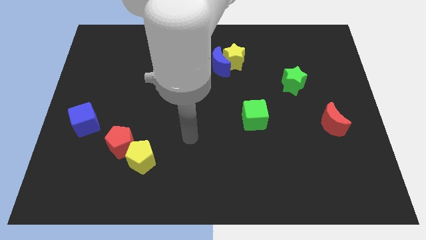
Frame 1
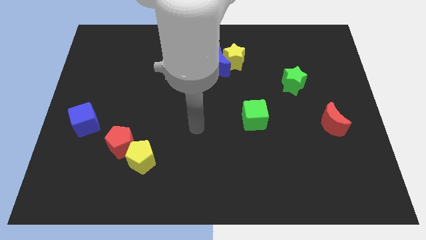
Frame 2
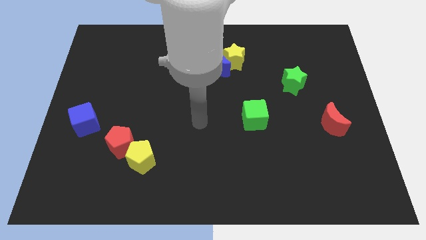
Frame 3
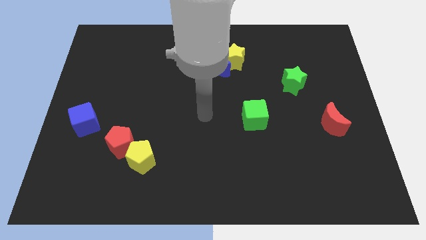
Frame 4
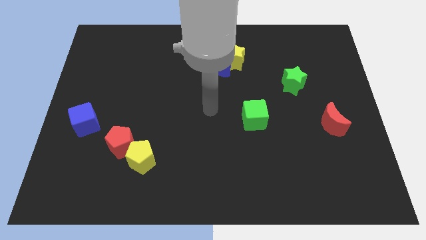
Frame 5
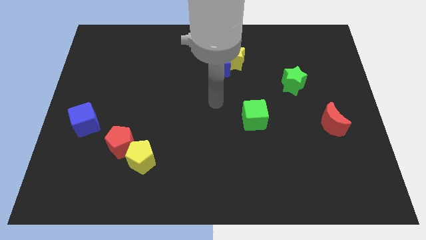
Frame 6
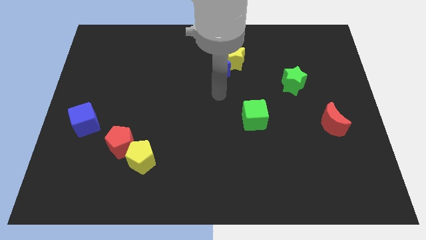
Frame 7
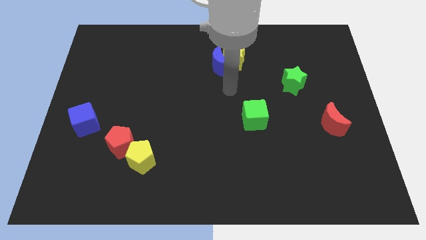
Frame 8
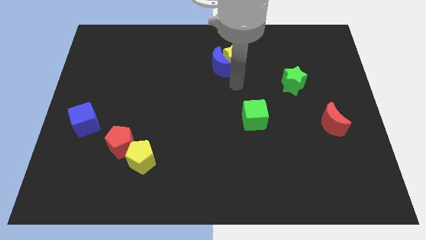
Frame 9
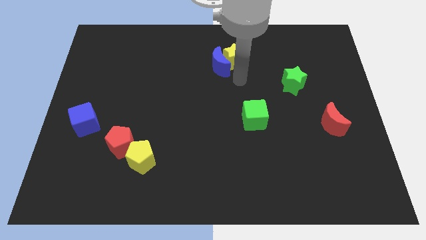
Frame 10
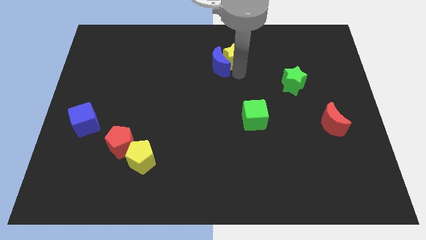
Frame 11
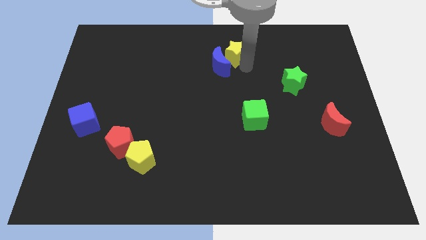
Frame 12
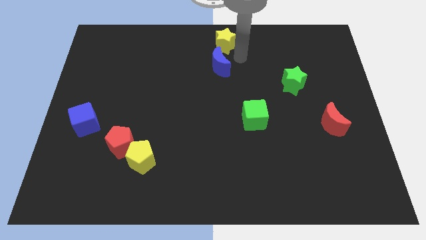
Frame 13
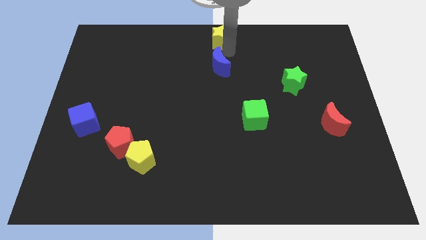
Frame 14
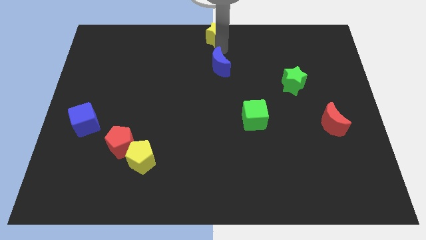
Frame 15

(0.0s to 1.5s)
separate the blue moon from the yellow star

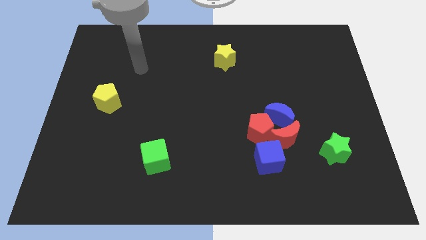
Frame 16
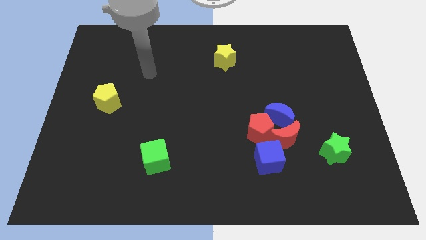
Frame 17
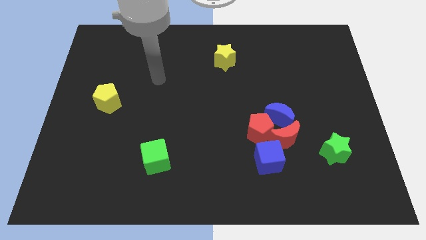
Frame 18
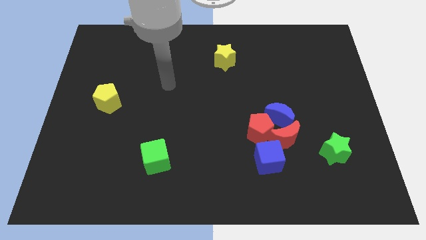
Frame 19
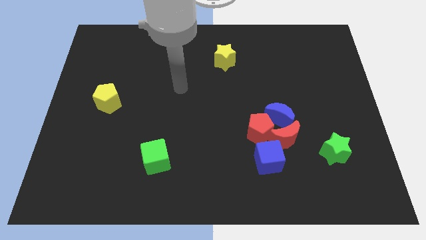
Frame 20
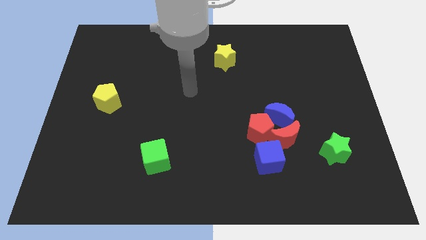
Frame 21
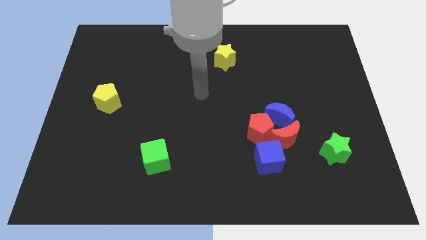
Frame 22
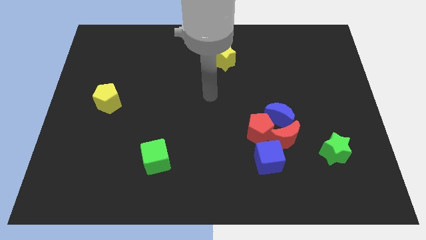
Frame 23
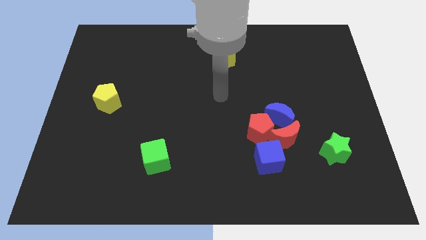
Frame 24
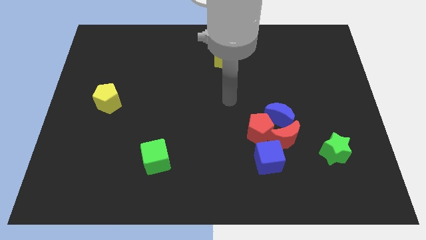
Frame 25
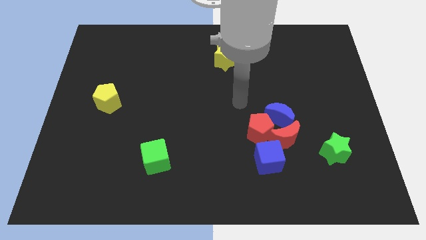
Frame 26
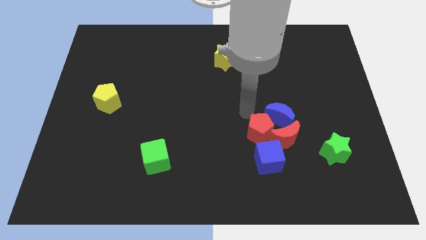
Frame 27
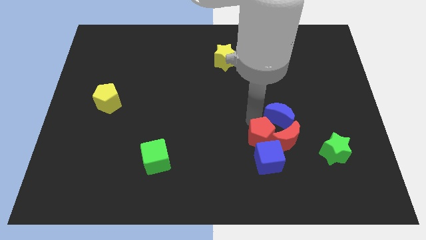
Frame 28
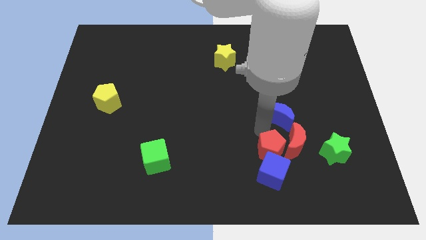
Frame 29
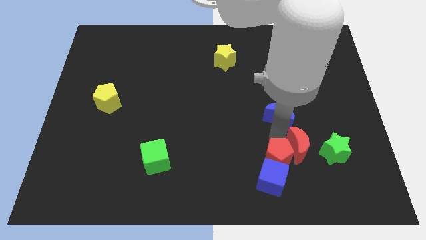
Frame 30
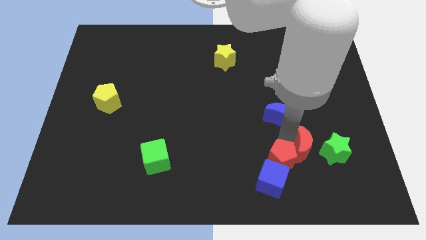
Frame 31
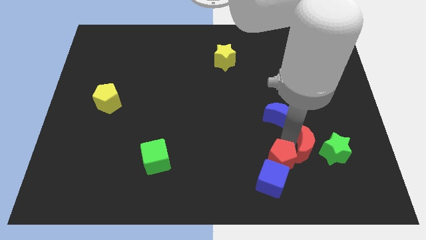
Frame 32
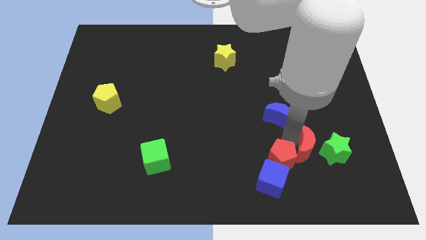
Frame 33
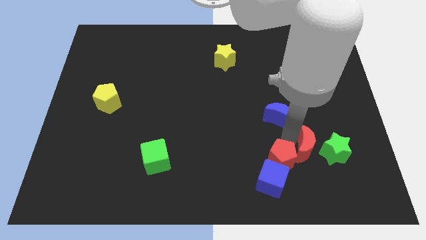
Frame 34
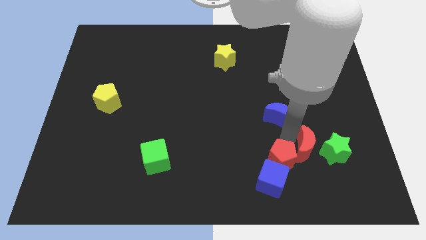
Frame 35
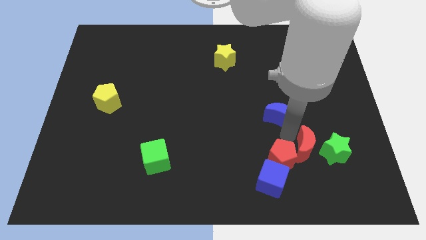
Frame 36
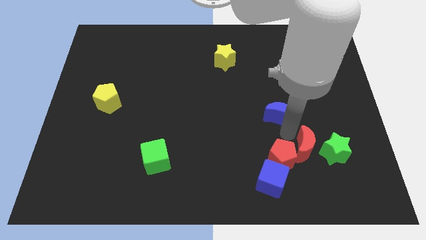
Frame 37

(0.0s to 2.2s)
separate the blue moon from the red moon and red pentagon

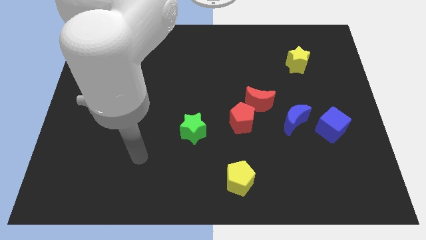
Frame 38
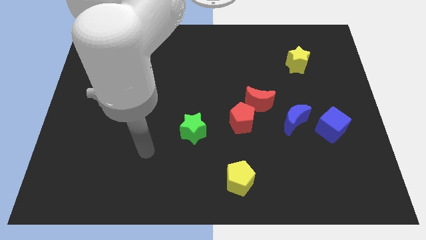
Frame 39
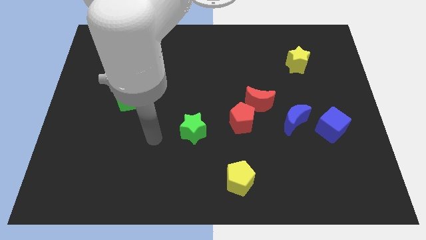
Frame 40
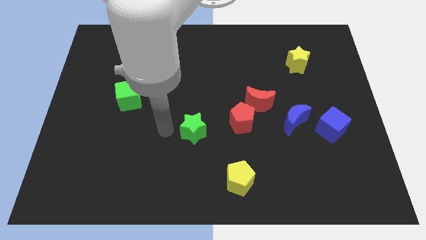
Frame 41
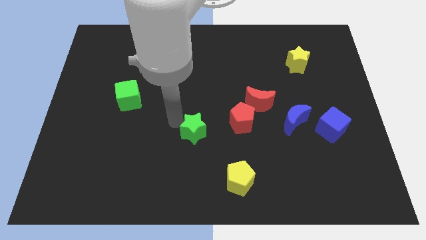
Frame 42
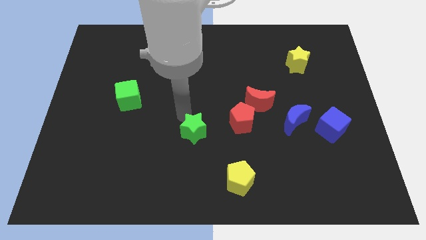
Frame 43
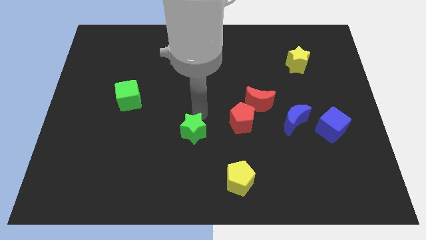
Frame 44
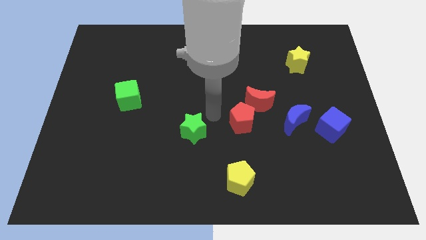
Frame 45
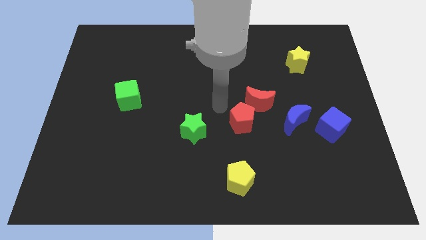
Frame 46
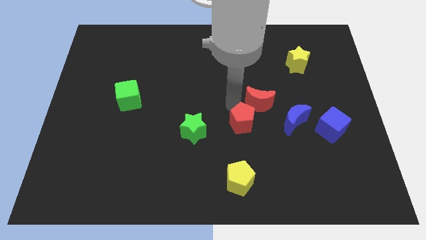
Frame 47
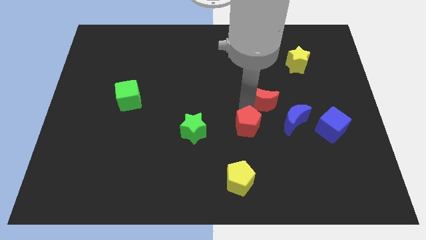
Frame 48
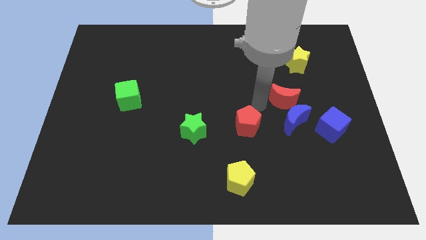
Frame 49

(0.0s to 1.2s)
move the red pentagon away from the red moon

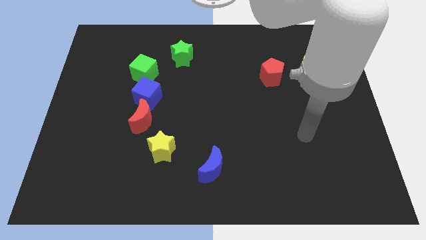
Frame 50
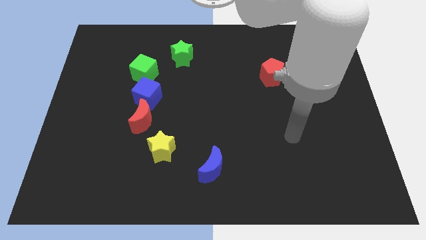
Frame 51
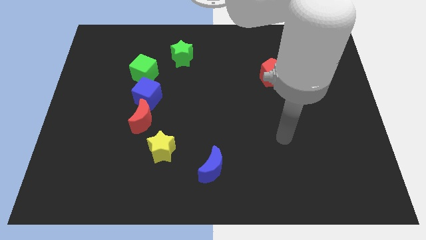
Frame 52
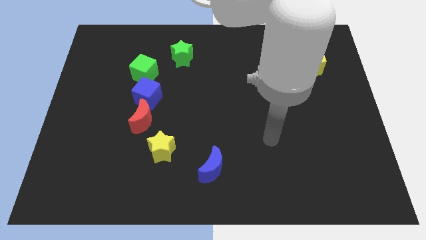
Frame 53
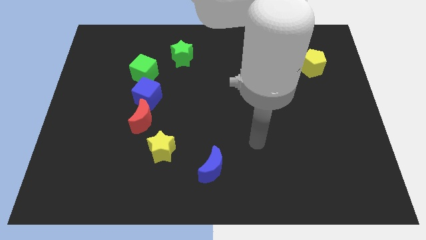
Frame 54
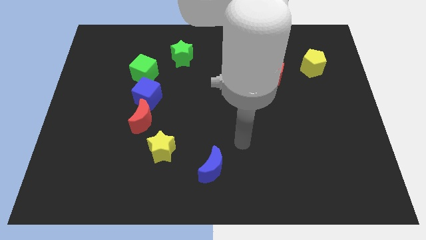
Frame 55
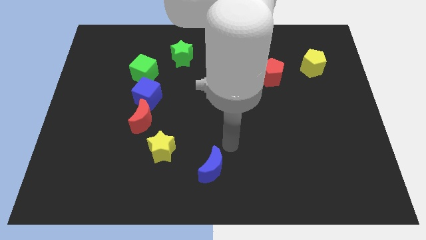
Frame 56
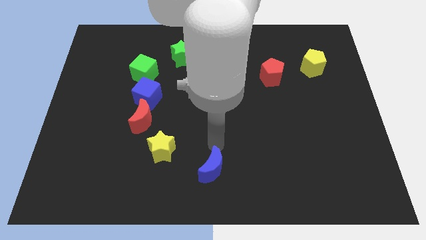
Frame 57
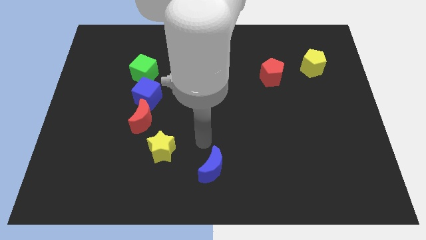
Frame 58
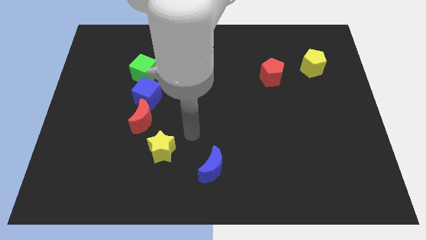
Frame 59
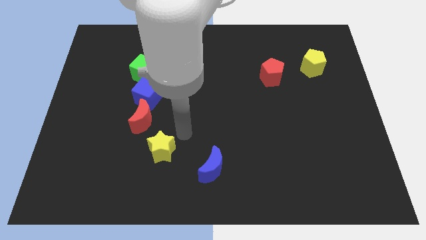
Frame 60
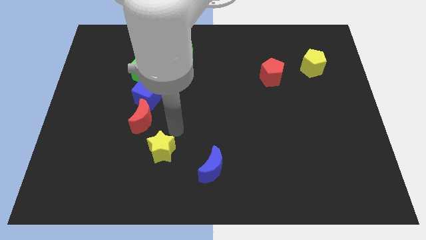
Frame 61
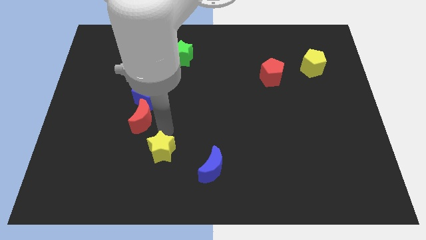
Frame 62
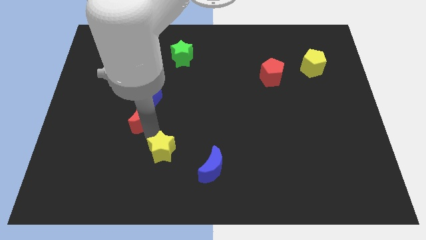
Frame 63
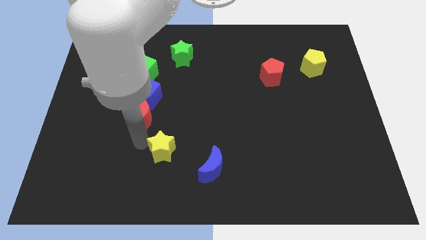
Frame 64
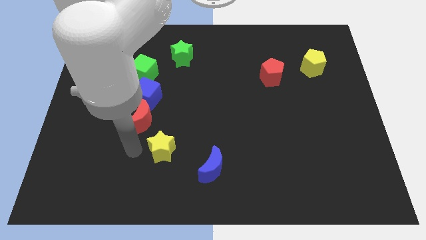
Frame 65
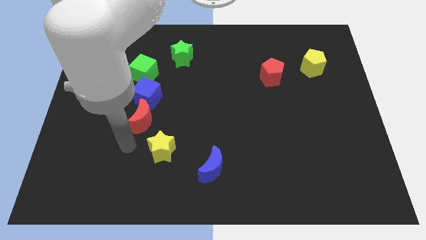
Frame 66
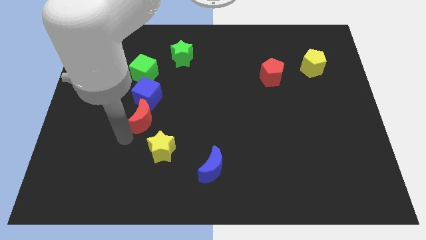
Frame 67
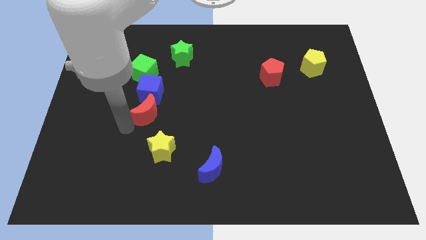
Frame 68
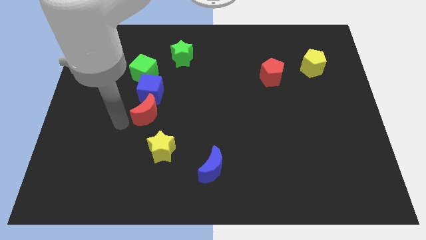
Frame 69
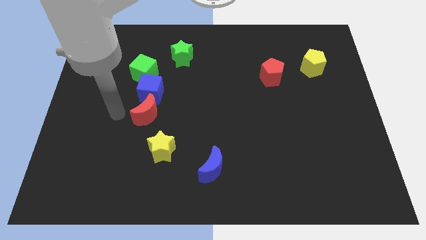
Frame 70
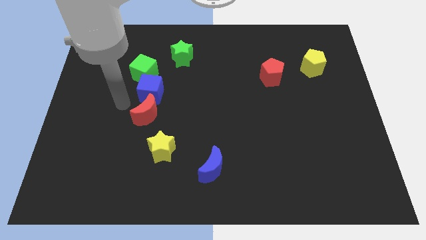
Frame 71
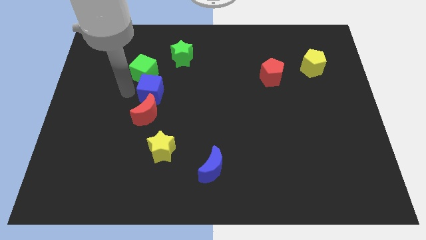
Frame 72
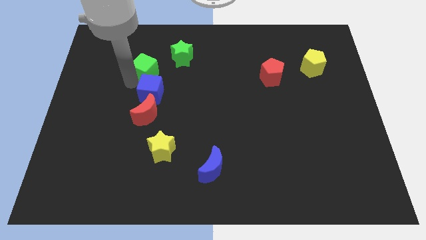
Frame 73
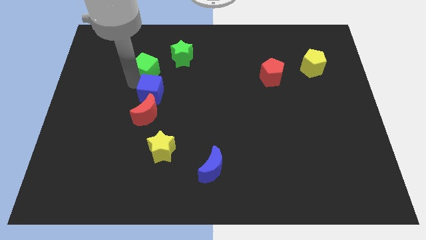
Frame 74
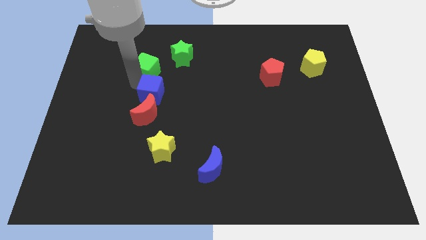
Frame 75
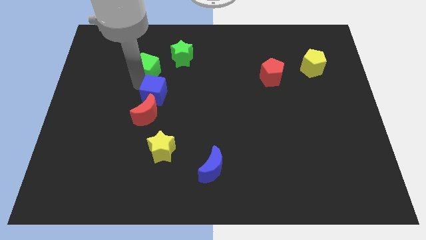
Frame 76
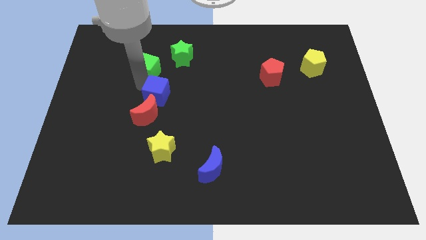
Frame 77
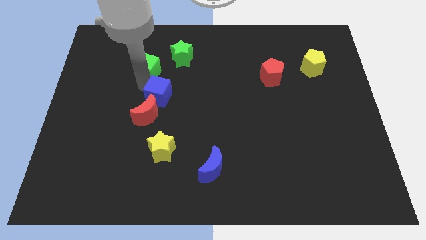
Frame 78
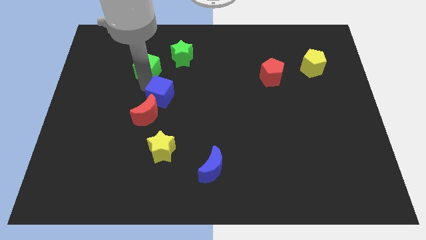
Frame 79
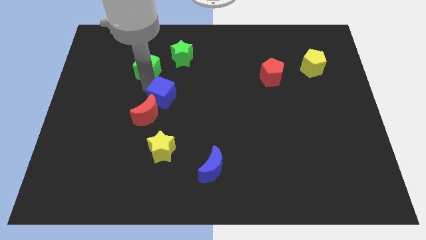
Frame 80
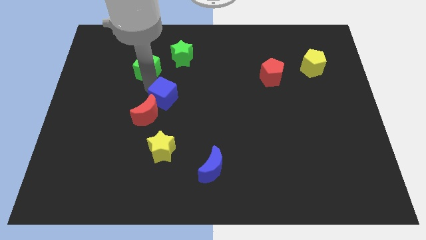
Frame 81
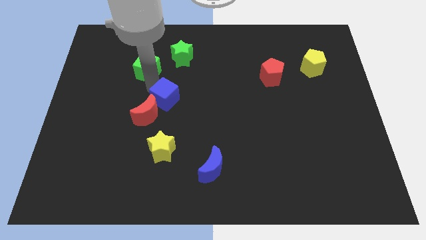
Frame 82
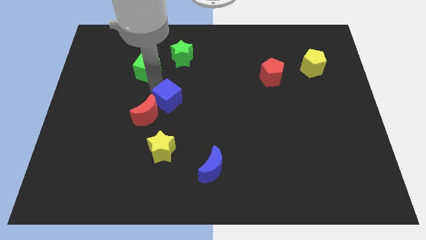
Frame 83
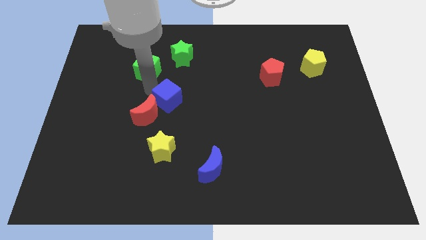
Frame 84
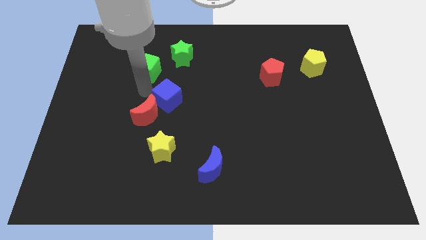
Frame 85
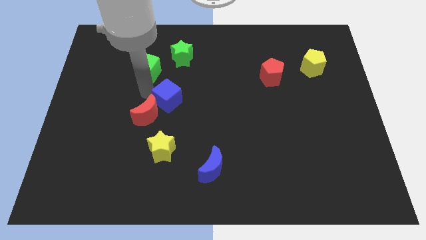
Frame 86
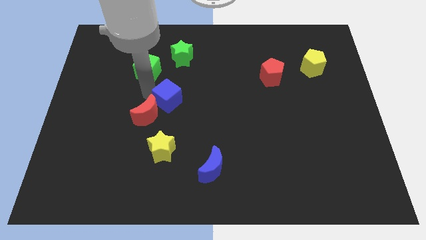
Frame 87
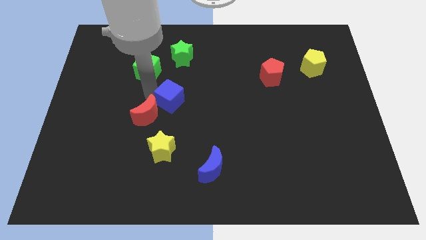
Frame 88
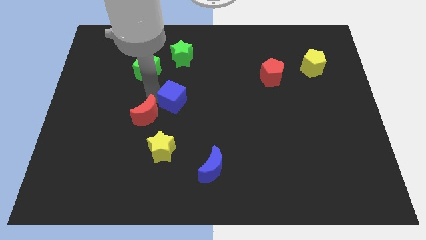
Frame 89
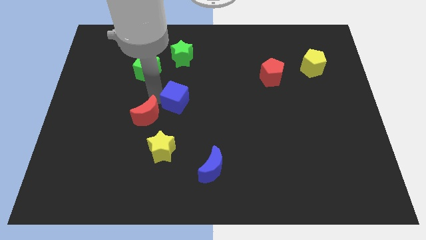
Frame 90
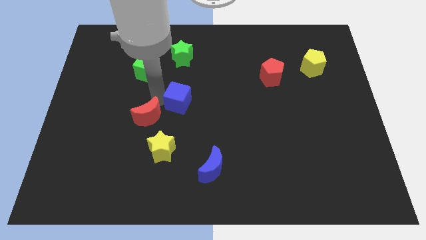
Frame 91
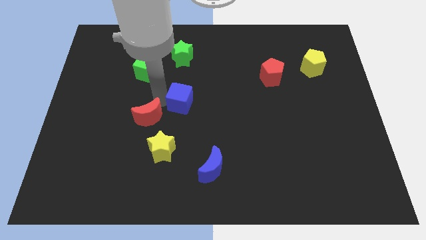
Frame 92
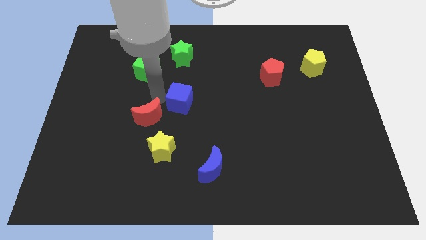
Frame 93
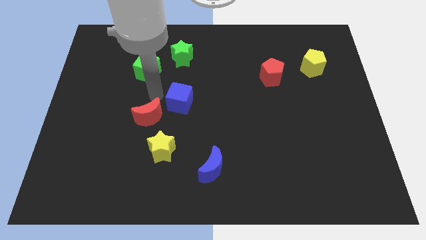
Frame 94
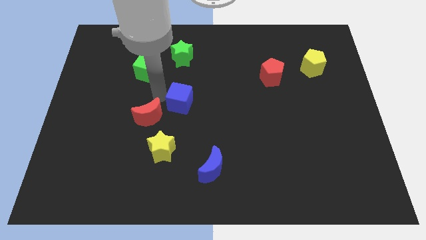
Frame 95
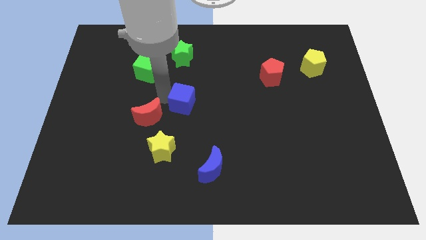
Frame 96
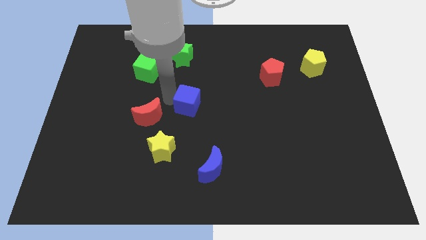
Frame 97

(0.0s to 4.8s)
move the blue cube away from the red moon and green cube
